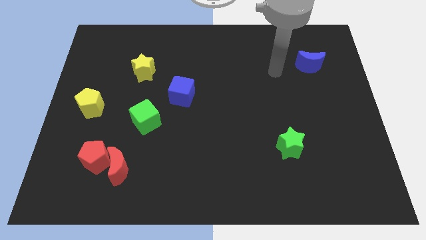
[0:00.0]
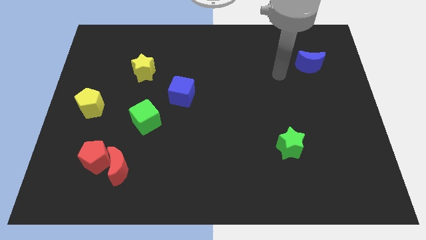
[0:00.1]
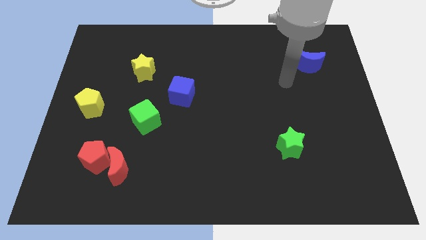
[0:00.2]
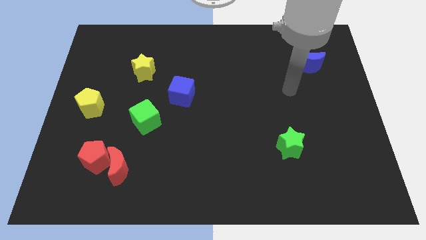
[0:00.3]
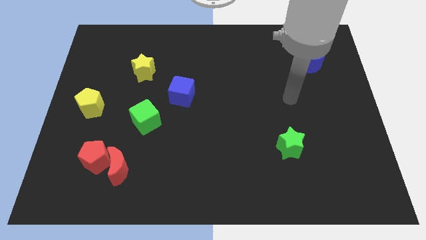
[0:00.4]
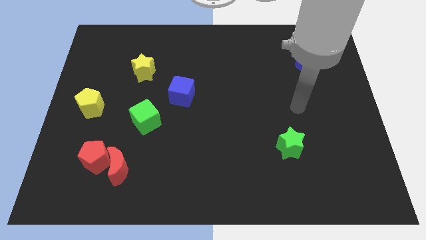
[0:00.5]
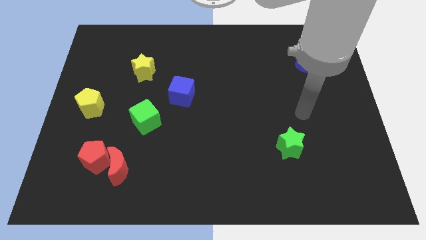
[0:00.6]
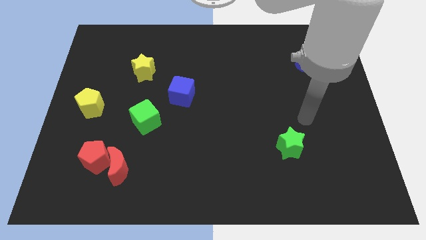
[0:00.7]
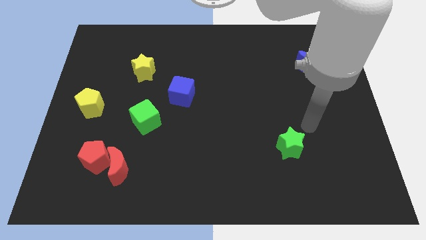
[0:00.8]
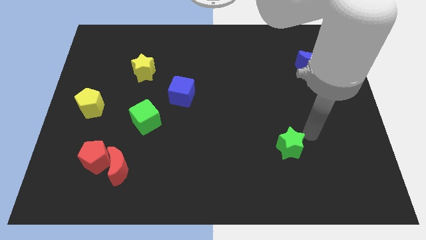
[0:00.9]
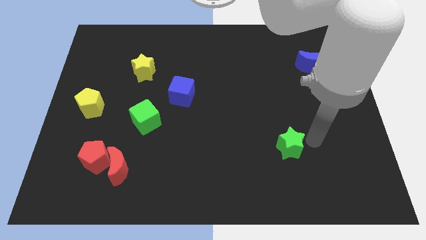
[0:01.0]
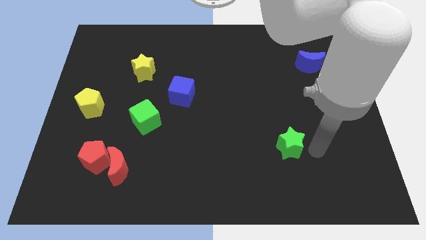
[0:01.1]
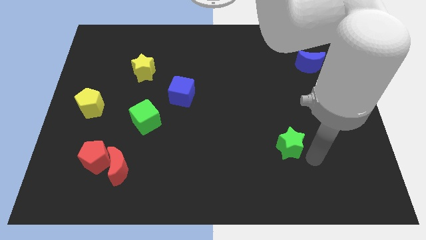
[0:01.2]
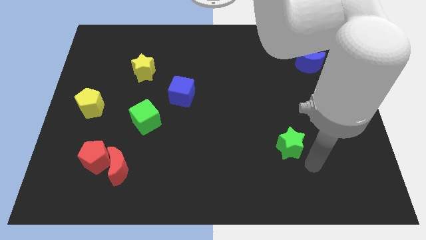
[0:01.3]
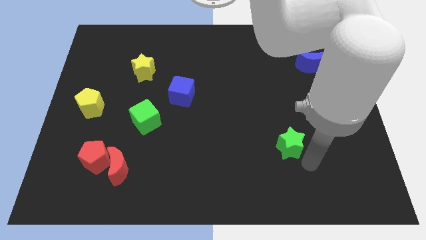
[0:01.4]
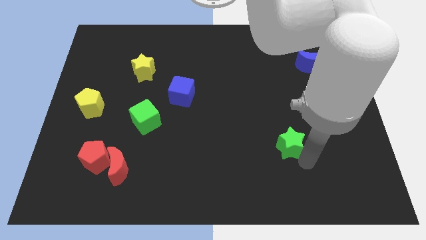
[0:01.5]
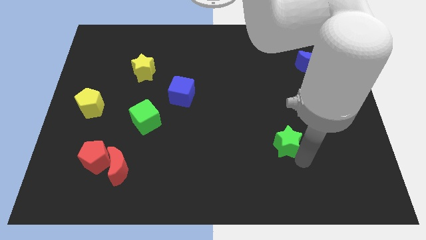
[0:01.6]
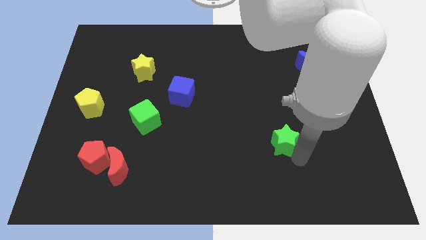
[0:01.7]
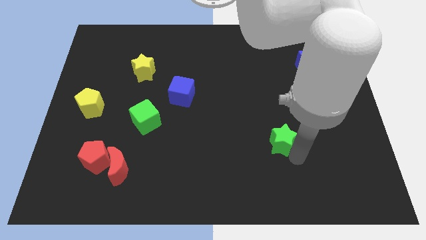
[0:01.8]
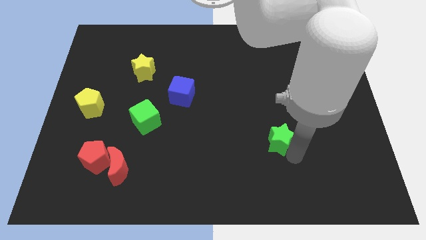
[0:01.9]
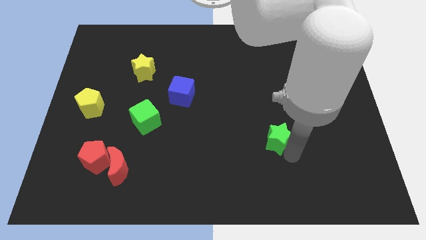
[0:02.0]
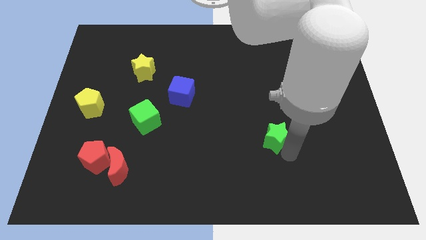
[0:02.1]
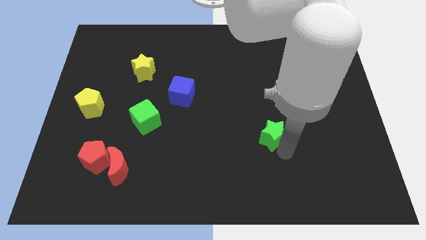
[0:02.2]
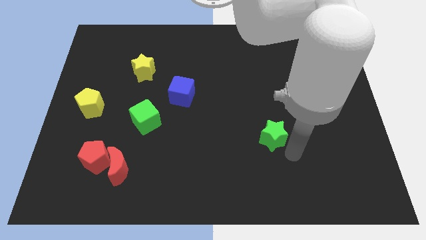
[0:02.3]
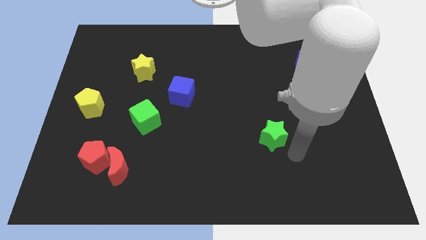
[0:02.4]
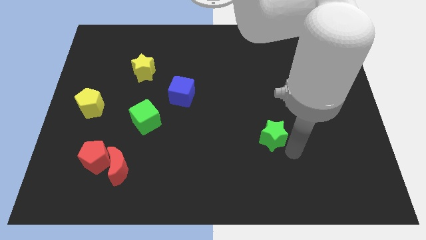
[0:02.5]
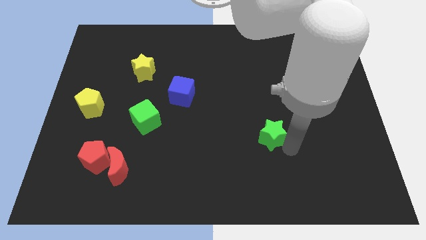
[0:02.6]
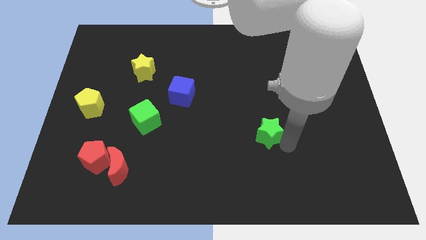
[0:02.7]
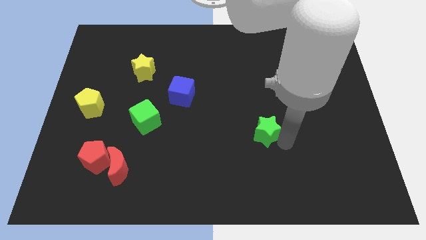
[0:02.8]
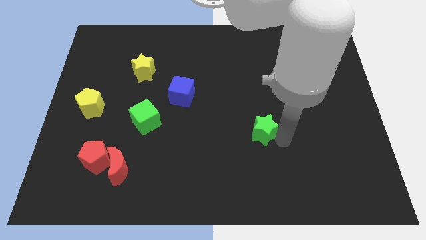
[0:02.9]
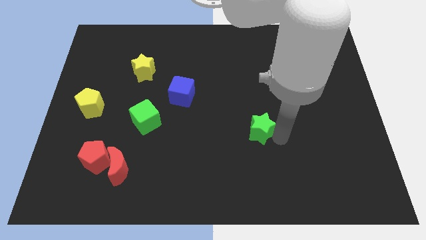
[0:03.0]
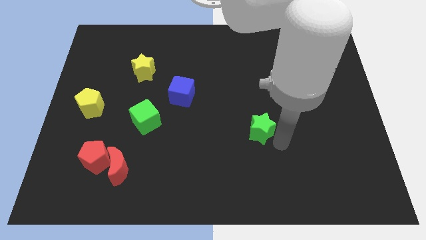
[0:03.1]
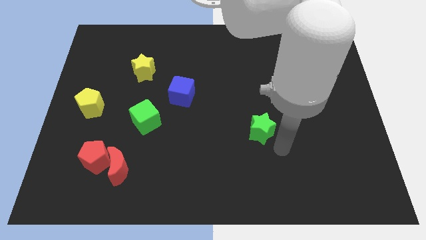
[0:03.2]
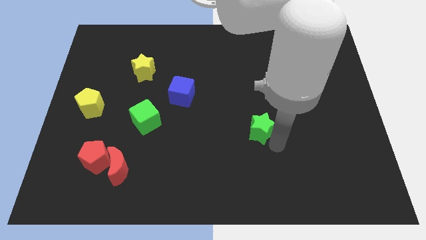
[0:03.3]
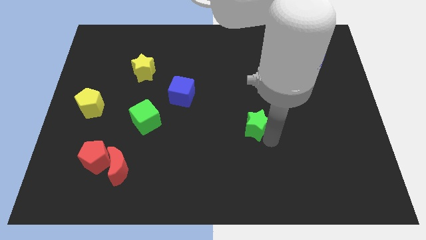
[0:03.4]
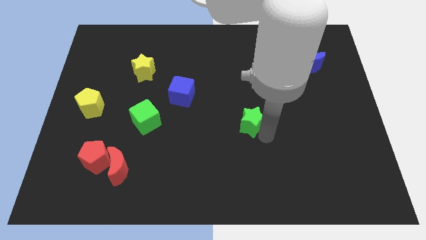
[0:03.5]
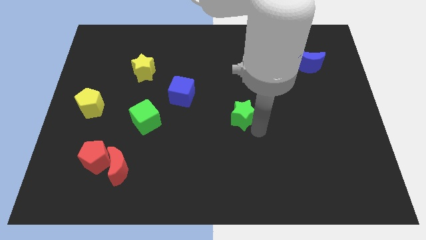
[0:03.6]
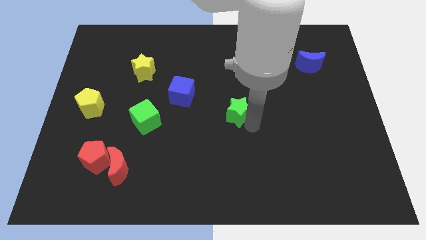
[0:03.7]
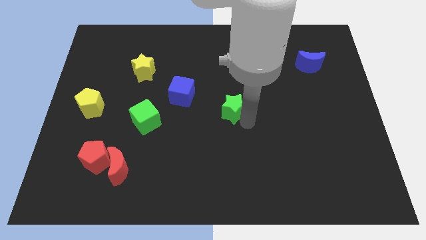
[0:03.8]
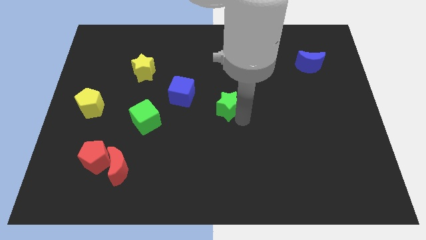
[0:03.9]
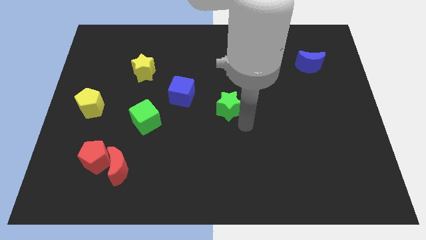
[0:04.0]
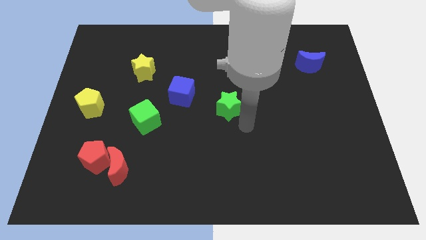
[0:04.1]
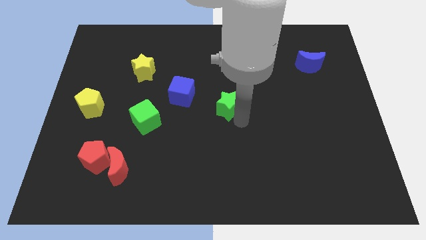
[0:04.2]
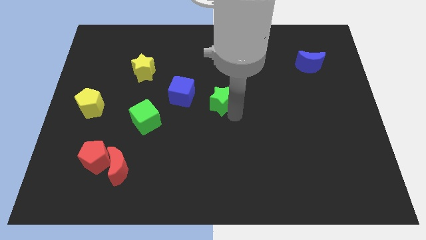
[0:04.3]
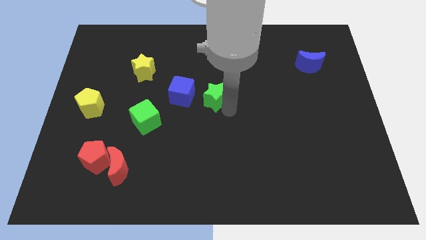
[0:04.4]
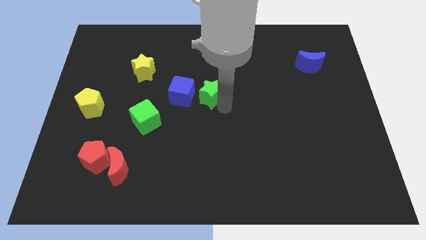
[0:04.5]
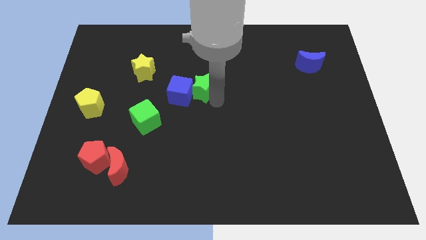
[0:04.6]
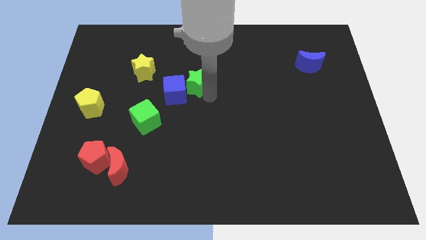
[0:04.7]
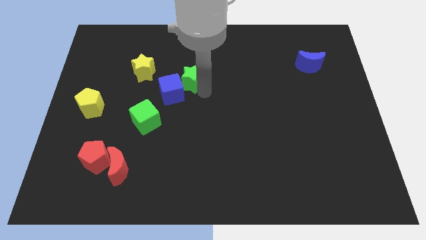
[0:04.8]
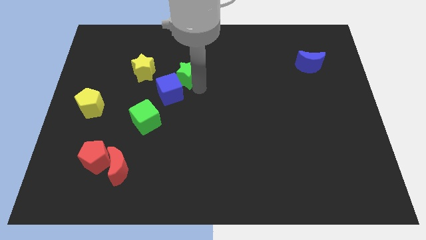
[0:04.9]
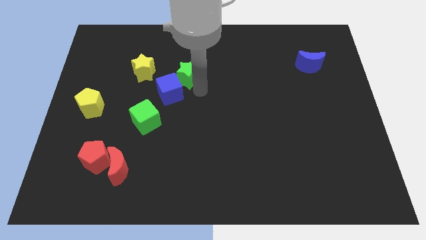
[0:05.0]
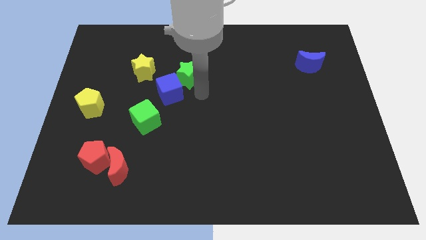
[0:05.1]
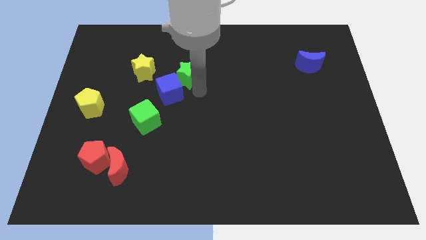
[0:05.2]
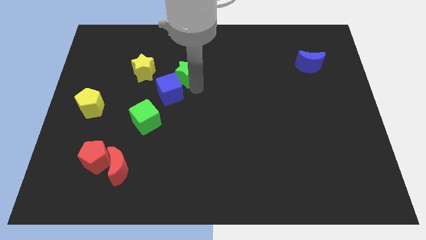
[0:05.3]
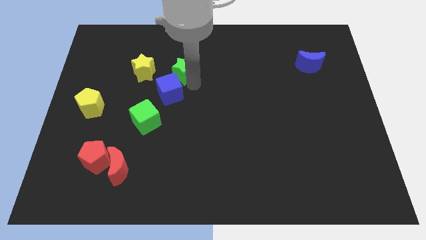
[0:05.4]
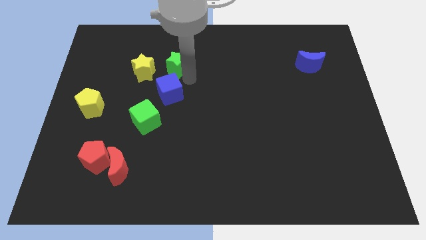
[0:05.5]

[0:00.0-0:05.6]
slide the green star to the top right side of the yellow star

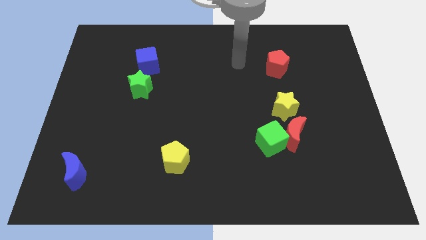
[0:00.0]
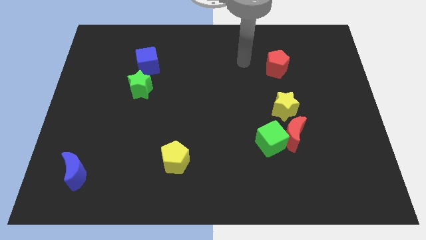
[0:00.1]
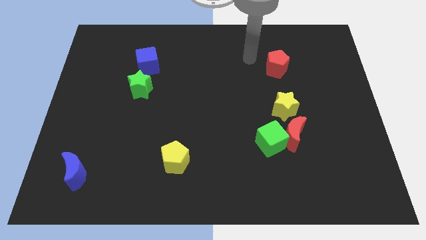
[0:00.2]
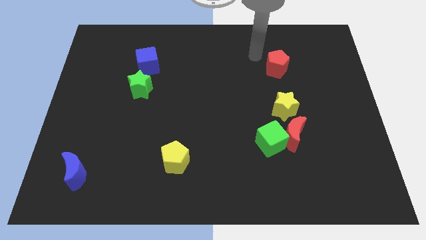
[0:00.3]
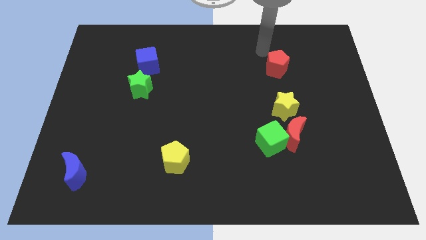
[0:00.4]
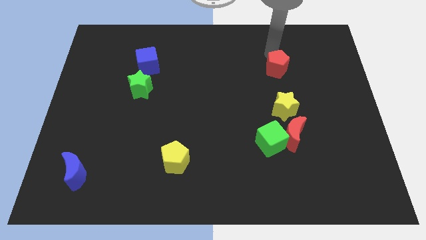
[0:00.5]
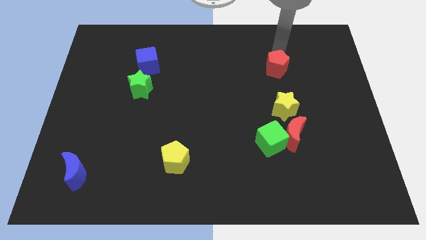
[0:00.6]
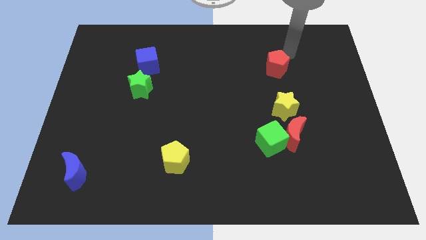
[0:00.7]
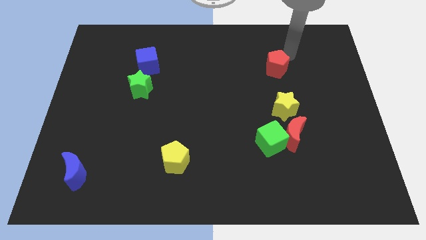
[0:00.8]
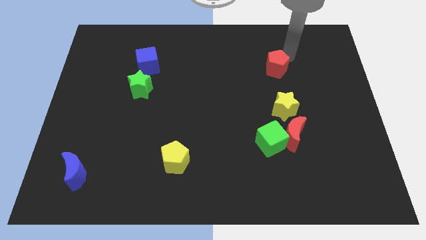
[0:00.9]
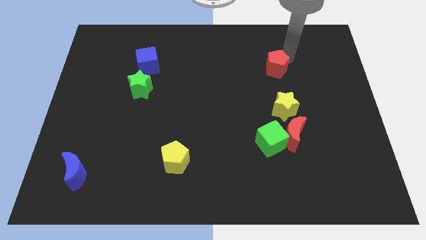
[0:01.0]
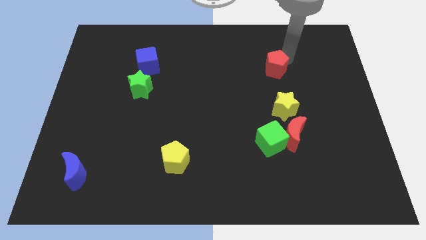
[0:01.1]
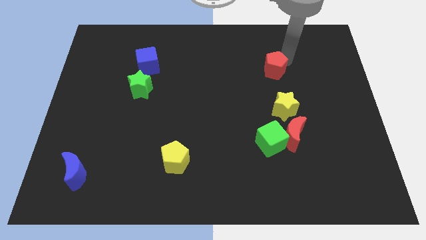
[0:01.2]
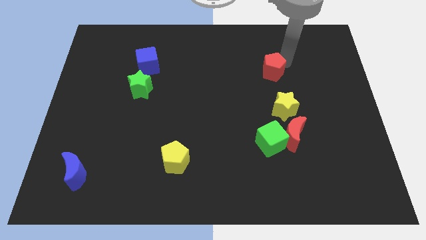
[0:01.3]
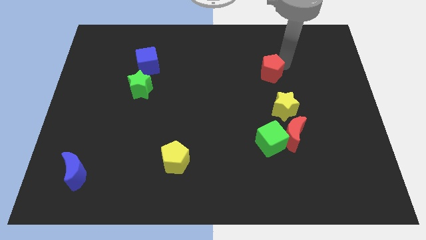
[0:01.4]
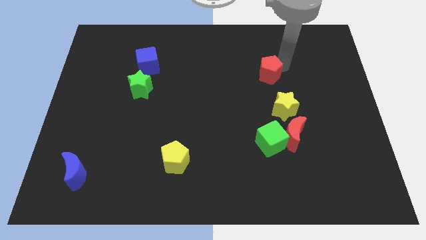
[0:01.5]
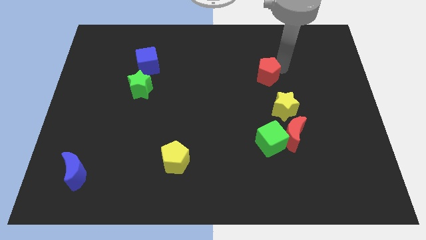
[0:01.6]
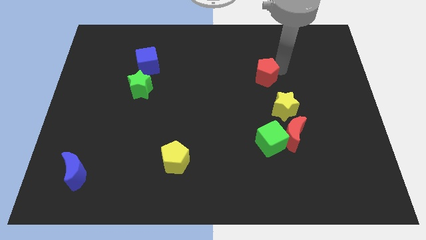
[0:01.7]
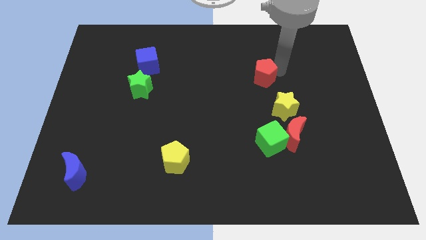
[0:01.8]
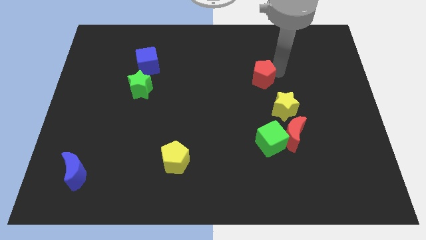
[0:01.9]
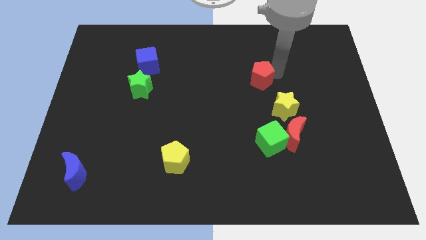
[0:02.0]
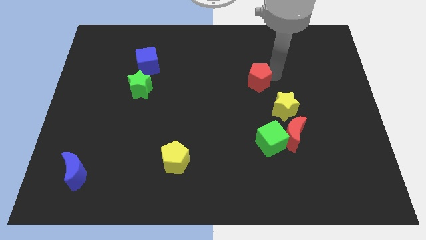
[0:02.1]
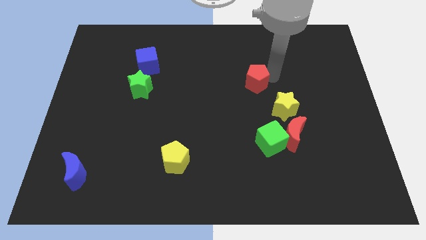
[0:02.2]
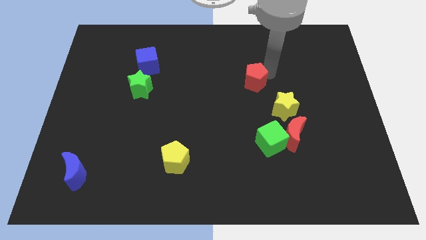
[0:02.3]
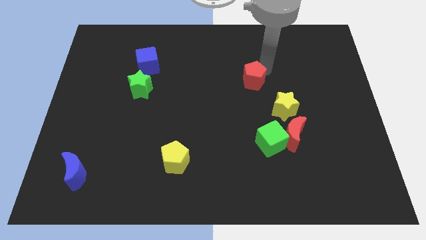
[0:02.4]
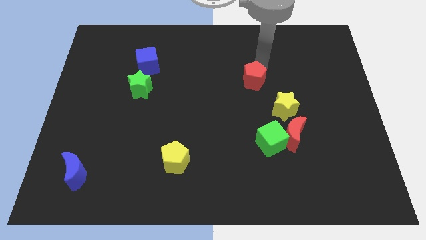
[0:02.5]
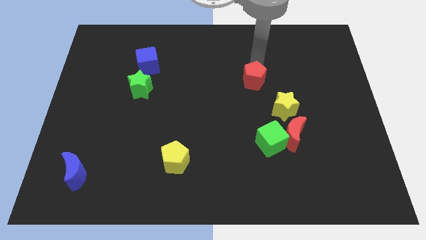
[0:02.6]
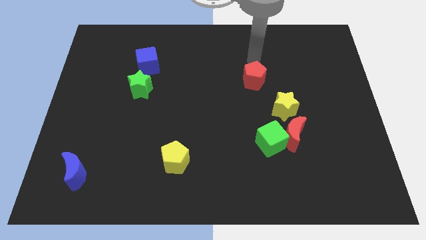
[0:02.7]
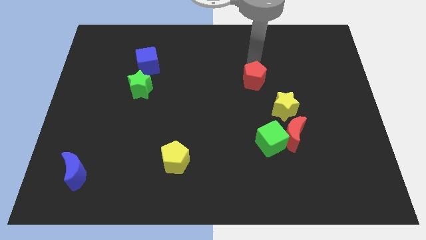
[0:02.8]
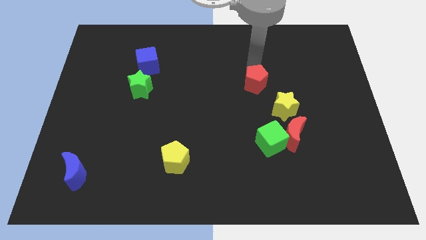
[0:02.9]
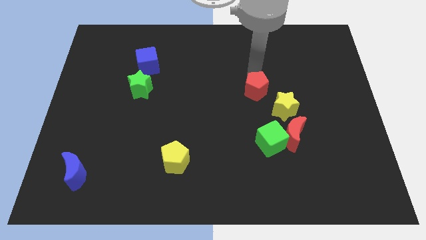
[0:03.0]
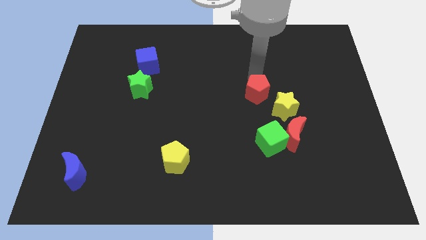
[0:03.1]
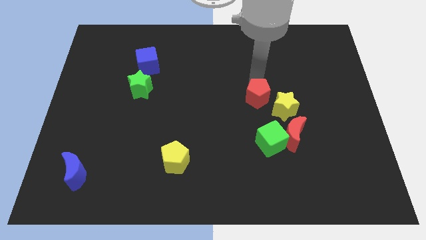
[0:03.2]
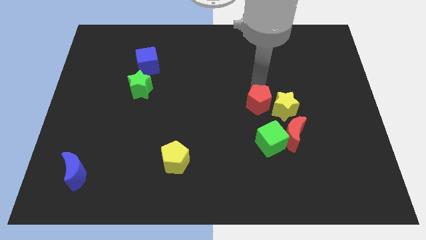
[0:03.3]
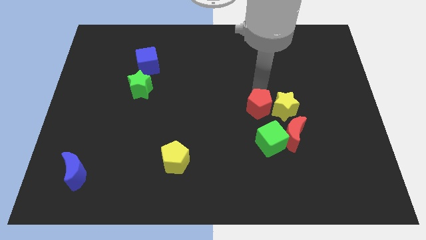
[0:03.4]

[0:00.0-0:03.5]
move the red pentagon to the bottom left of the yellow star
